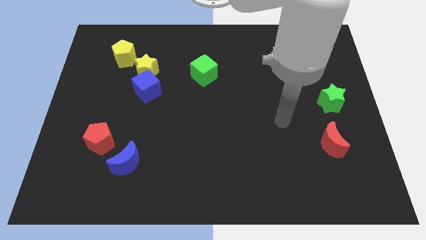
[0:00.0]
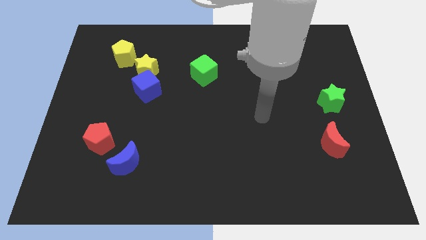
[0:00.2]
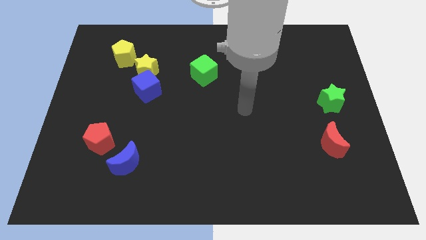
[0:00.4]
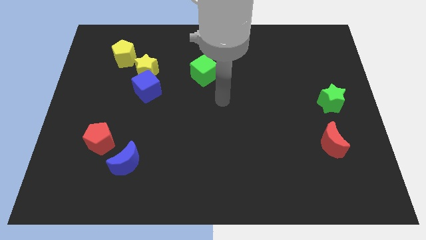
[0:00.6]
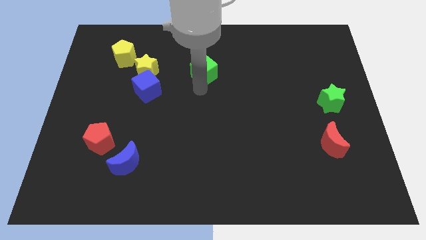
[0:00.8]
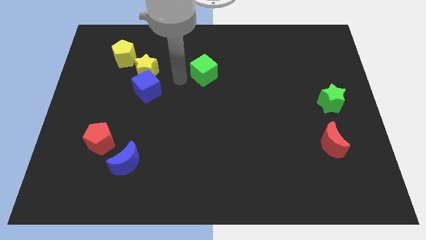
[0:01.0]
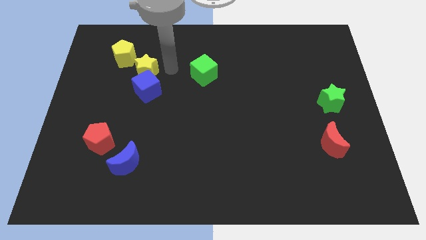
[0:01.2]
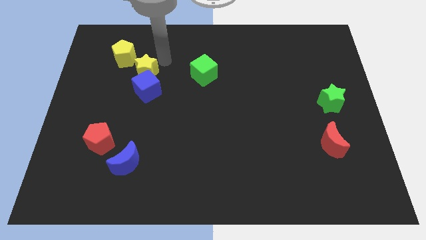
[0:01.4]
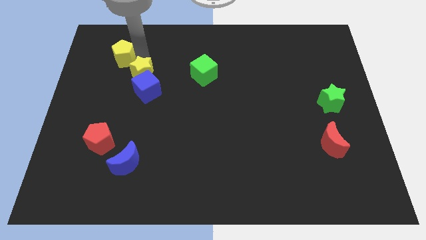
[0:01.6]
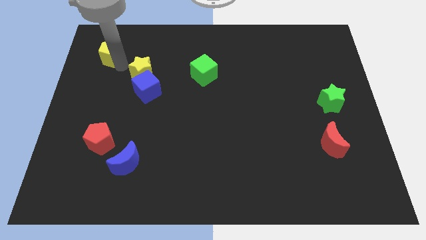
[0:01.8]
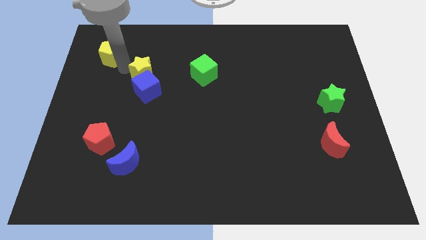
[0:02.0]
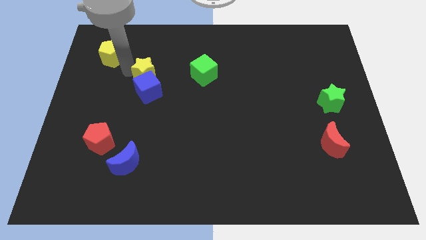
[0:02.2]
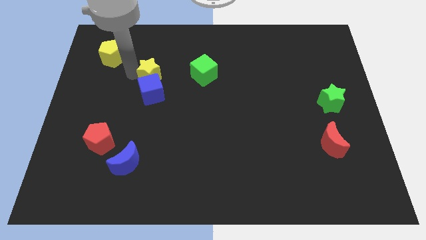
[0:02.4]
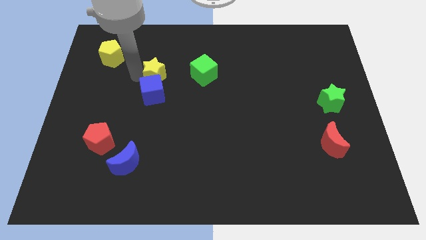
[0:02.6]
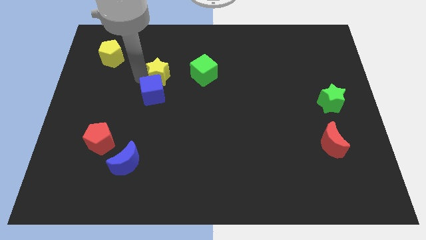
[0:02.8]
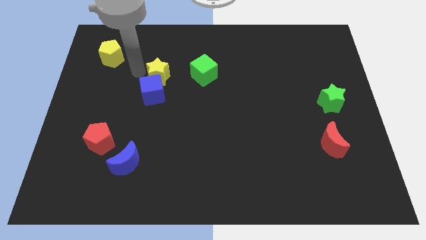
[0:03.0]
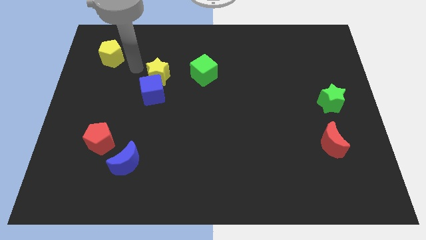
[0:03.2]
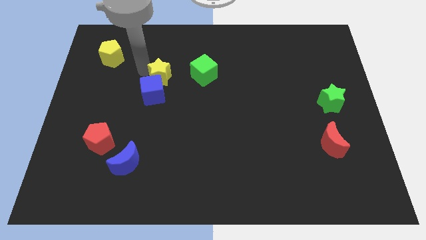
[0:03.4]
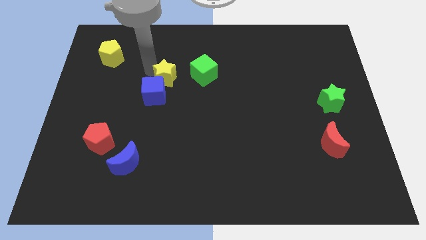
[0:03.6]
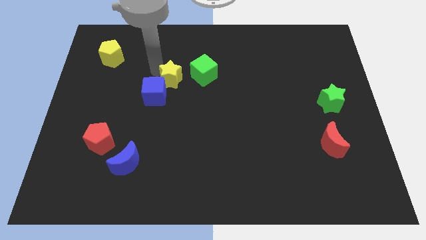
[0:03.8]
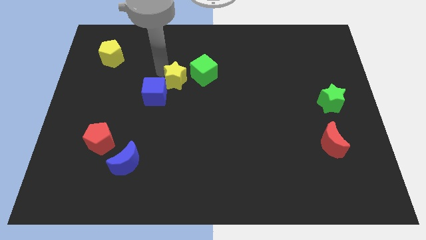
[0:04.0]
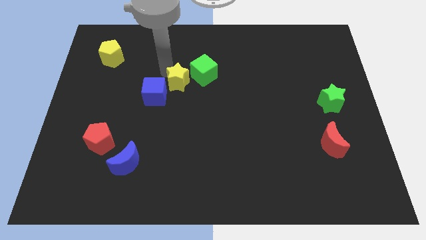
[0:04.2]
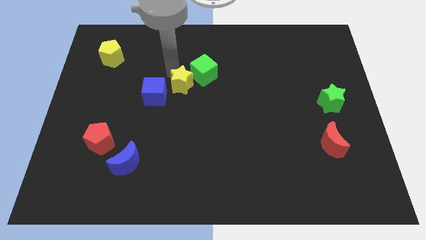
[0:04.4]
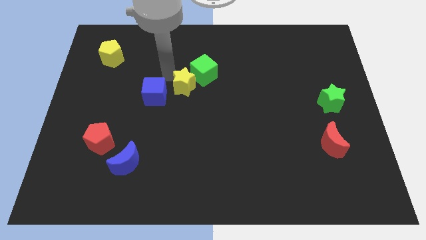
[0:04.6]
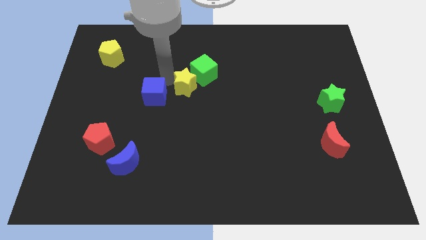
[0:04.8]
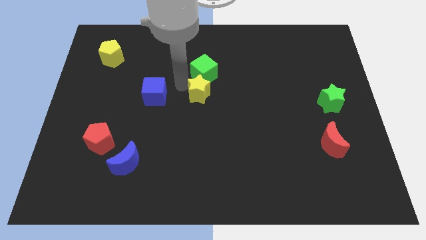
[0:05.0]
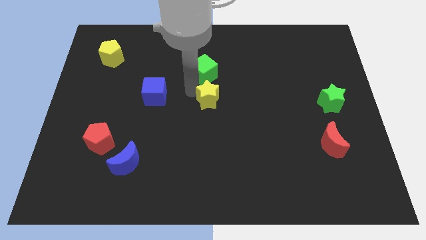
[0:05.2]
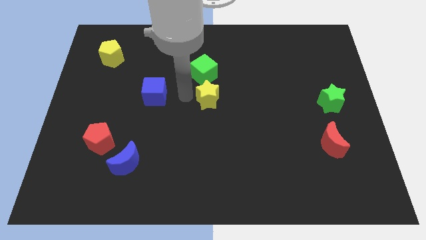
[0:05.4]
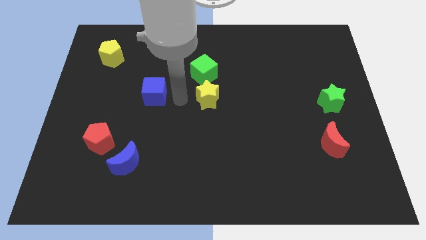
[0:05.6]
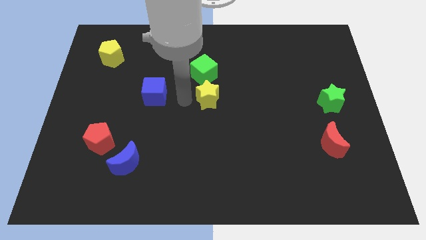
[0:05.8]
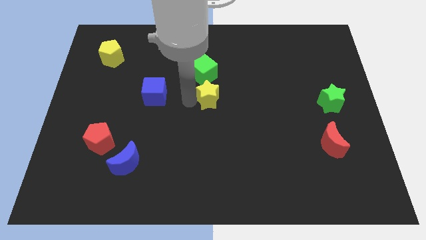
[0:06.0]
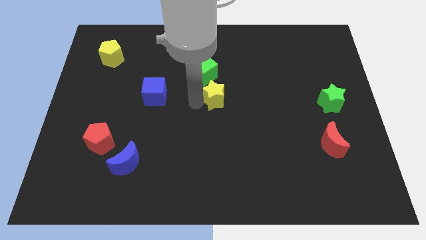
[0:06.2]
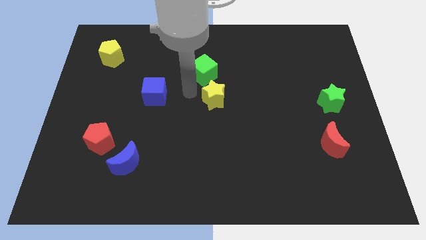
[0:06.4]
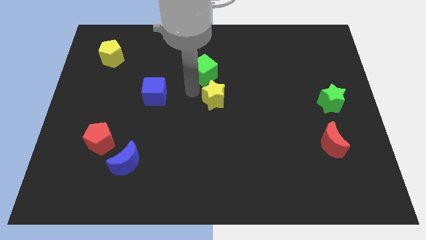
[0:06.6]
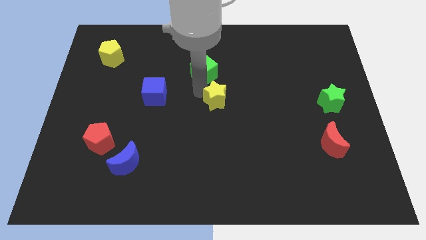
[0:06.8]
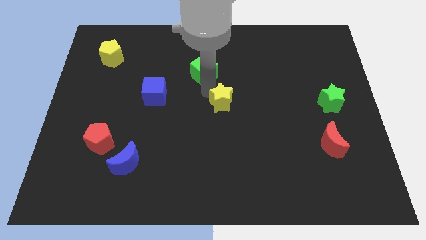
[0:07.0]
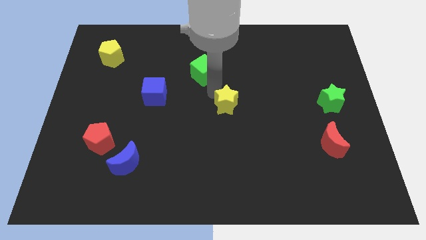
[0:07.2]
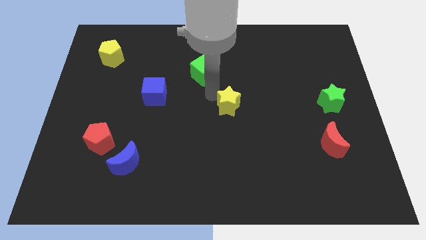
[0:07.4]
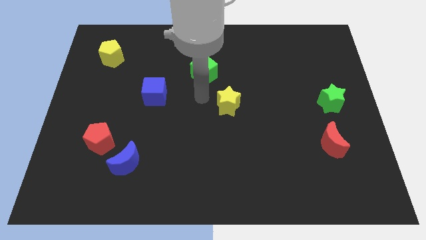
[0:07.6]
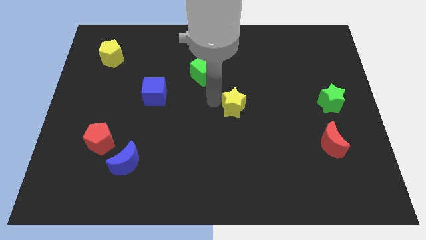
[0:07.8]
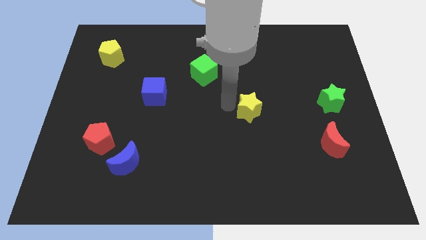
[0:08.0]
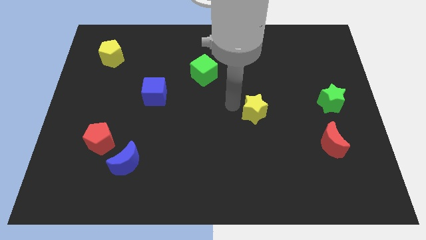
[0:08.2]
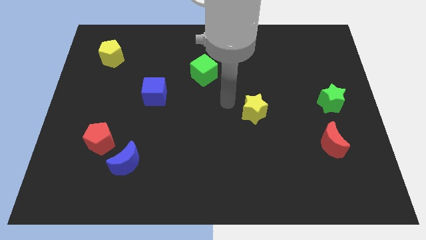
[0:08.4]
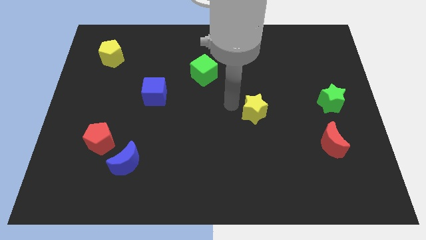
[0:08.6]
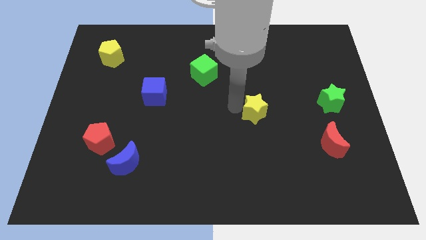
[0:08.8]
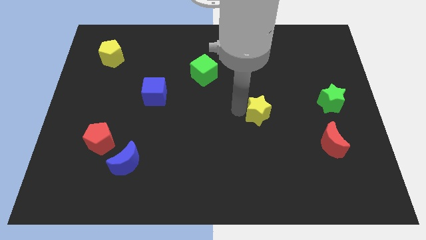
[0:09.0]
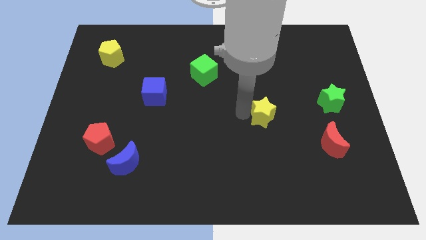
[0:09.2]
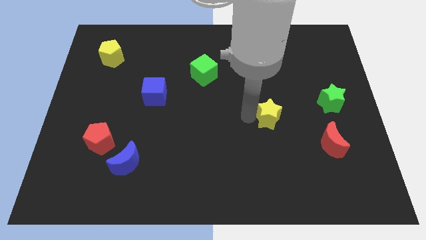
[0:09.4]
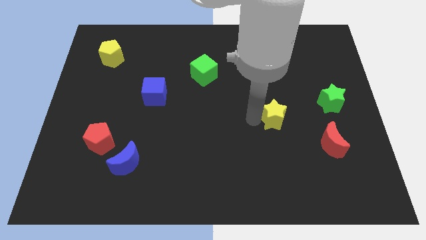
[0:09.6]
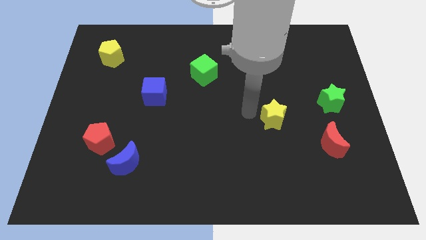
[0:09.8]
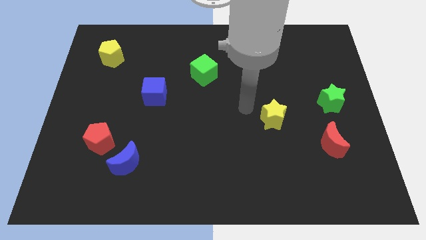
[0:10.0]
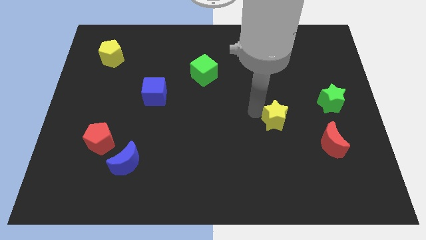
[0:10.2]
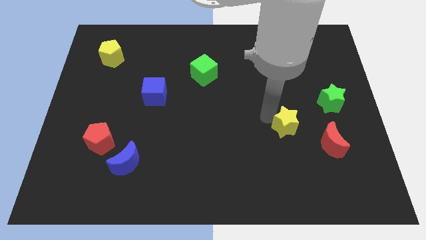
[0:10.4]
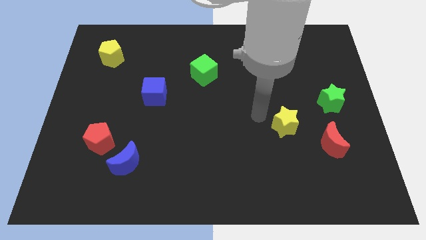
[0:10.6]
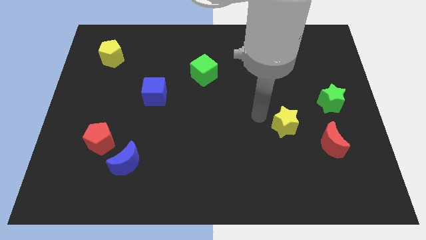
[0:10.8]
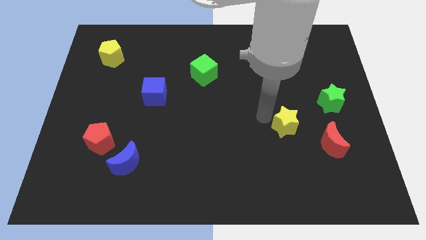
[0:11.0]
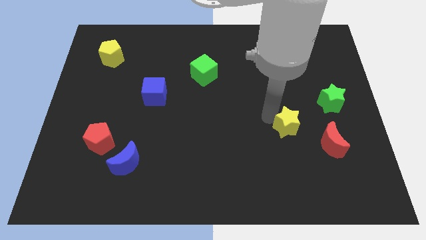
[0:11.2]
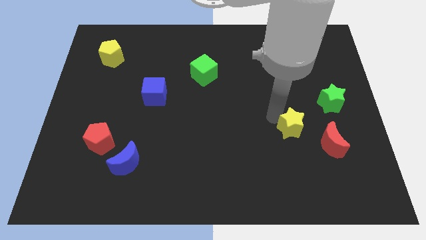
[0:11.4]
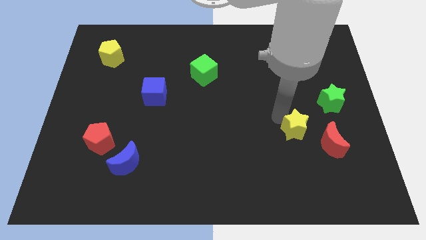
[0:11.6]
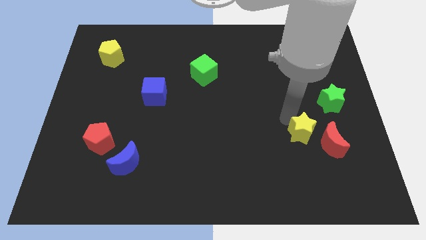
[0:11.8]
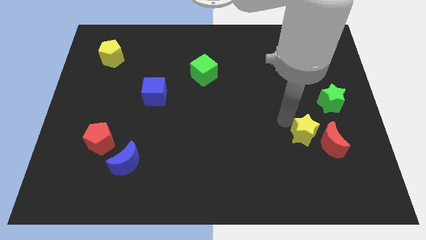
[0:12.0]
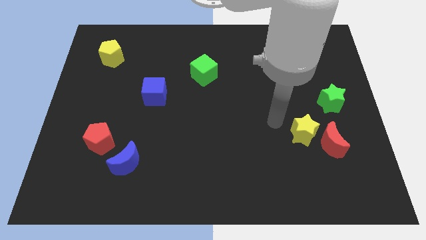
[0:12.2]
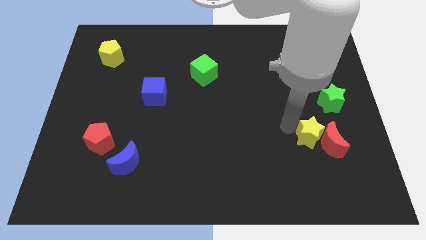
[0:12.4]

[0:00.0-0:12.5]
slide the yellow star towards the red moon

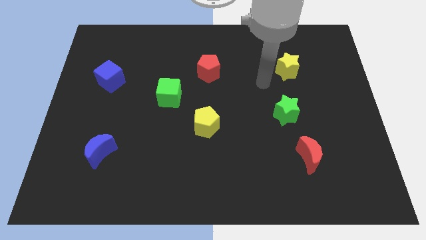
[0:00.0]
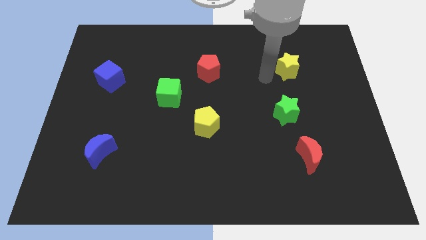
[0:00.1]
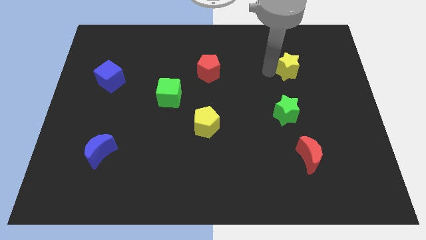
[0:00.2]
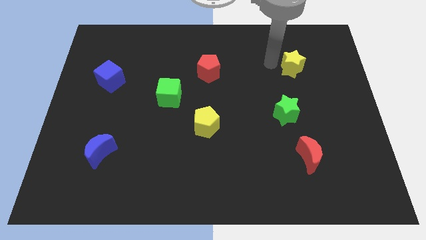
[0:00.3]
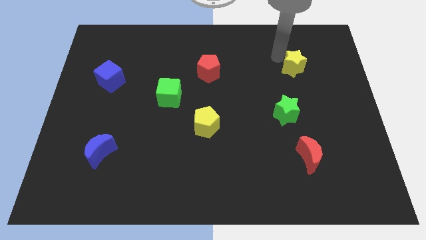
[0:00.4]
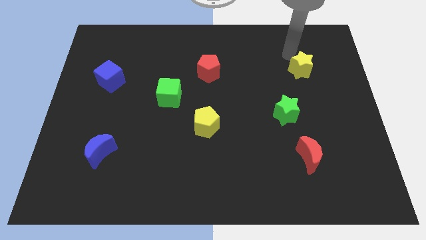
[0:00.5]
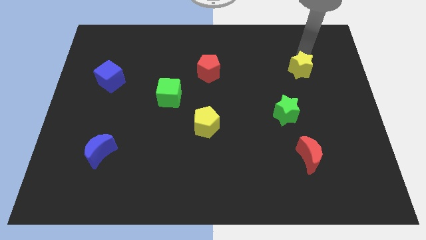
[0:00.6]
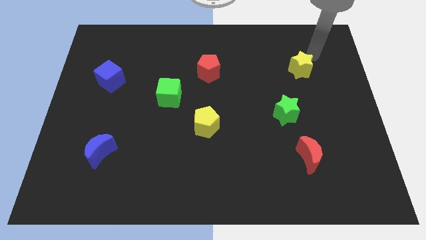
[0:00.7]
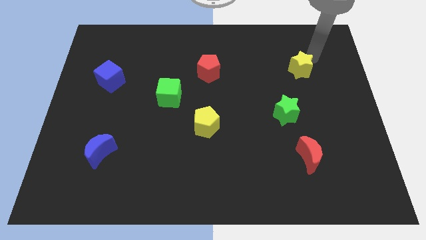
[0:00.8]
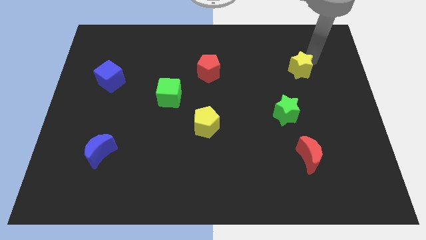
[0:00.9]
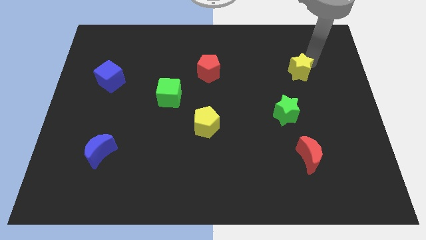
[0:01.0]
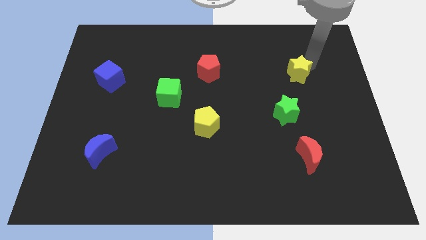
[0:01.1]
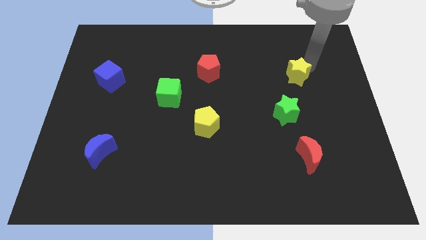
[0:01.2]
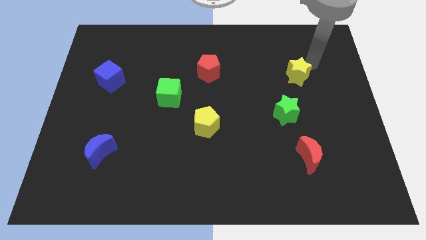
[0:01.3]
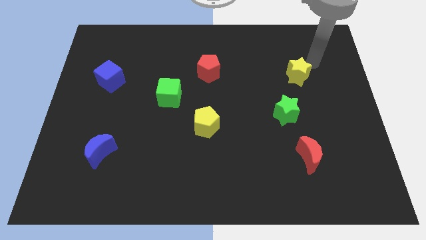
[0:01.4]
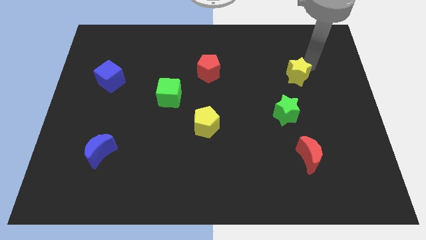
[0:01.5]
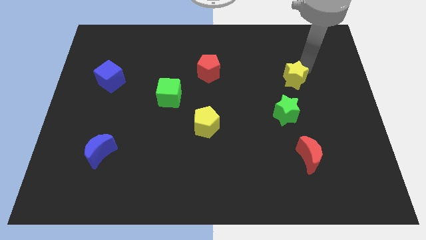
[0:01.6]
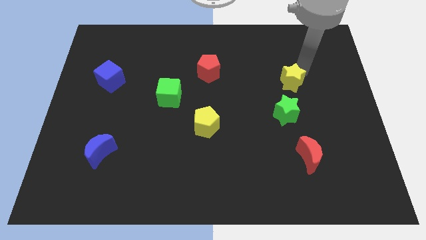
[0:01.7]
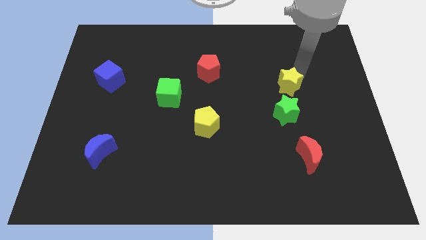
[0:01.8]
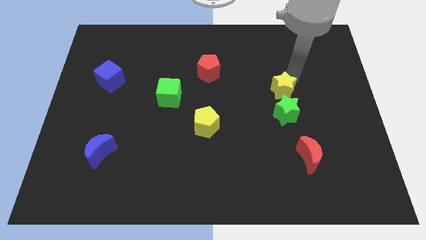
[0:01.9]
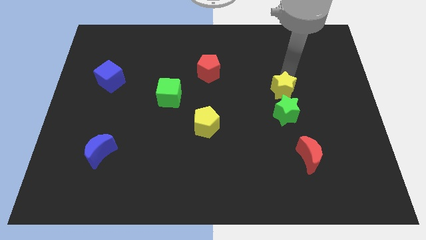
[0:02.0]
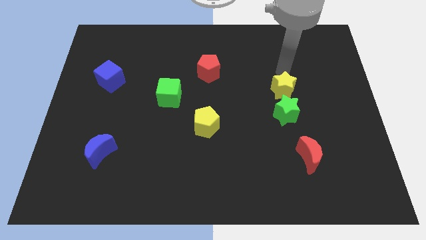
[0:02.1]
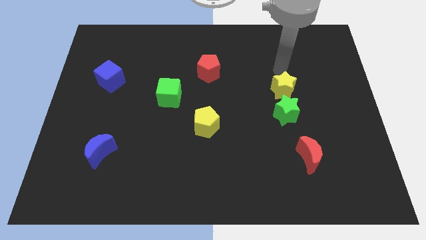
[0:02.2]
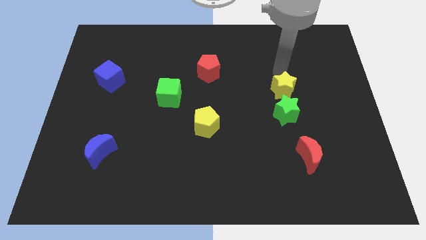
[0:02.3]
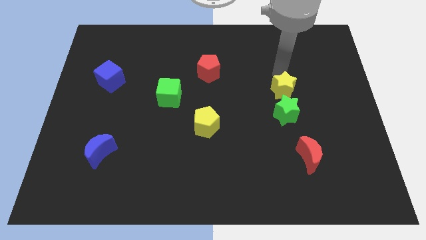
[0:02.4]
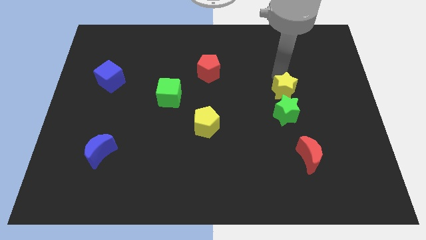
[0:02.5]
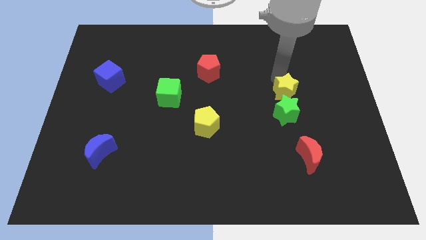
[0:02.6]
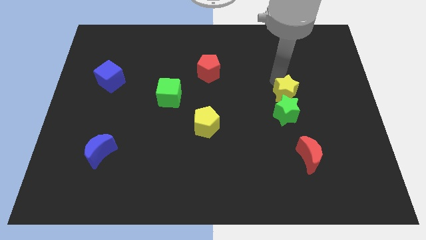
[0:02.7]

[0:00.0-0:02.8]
slide the yellow star to the green star
